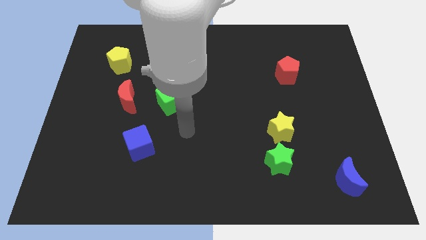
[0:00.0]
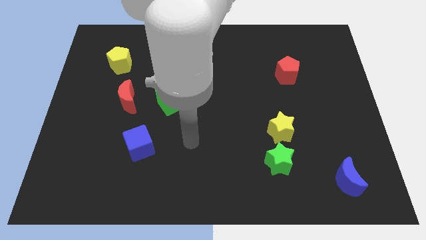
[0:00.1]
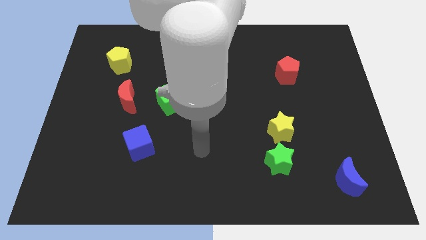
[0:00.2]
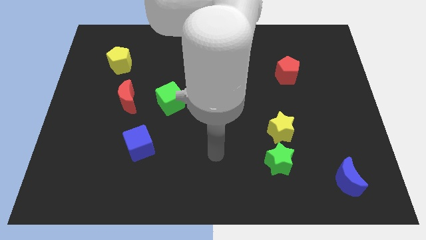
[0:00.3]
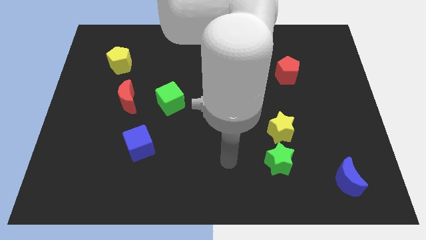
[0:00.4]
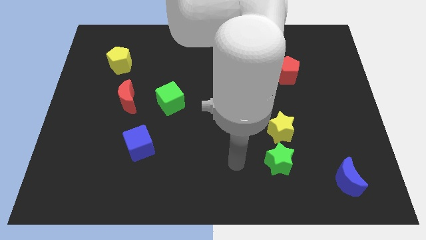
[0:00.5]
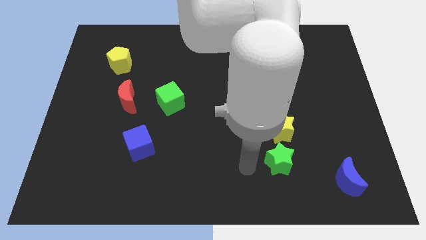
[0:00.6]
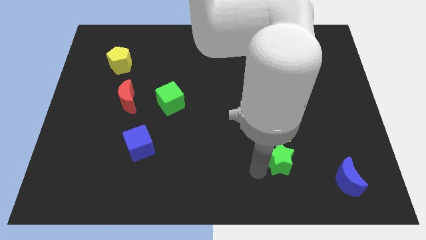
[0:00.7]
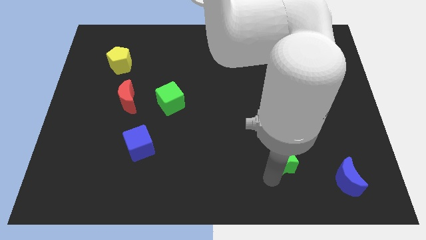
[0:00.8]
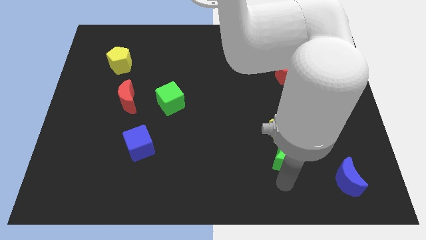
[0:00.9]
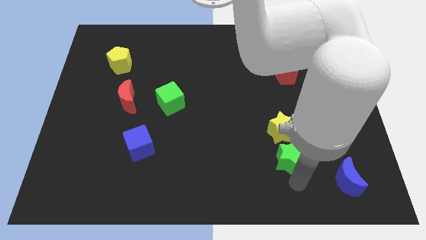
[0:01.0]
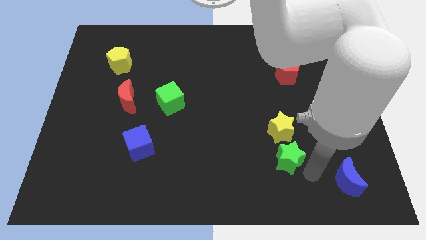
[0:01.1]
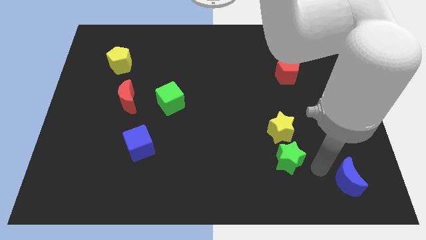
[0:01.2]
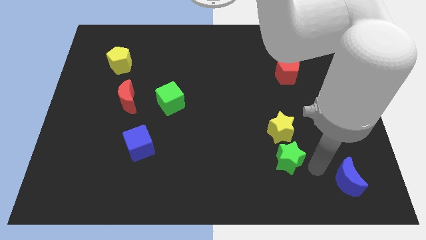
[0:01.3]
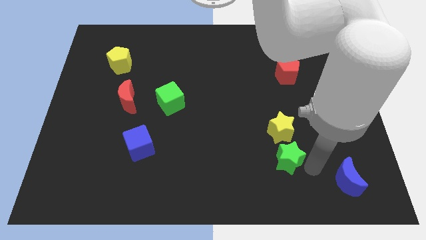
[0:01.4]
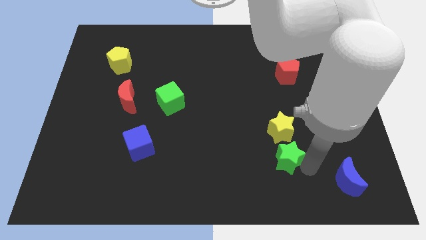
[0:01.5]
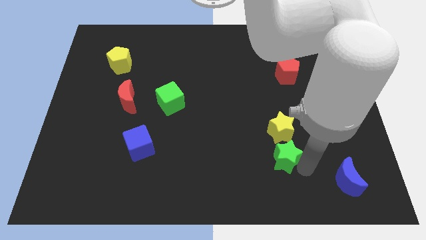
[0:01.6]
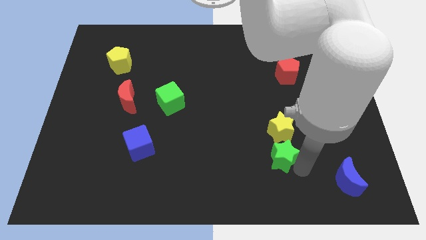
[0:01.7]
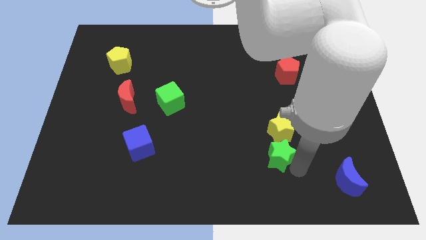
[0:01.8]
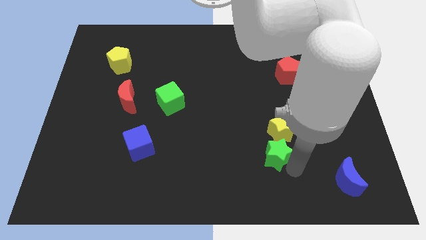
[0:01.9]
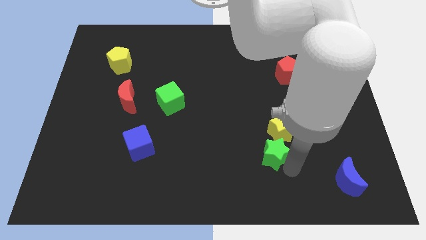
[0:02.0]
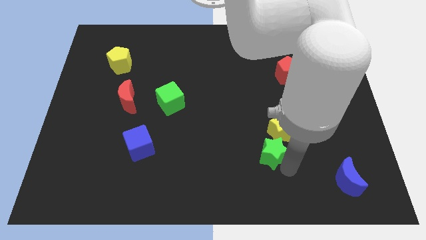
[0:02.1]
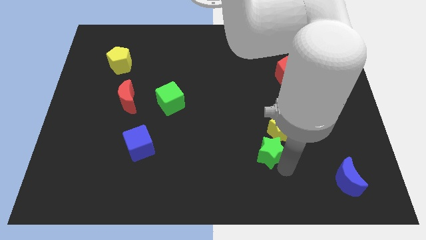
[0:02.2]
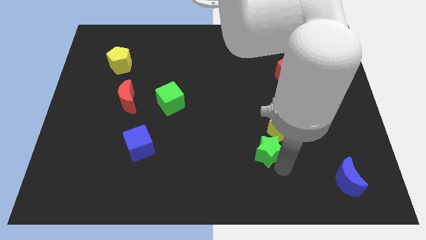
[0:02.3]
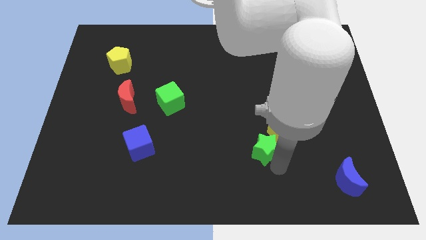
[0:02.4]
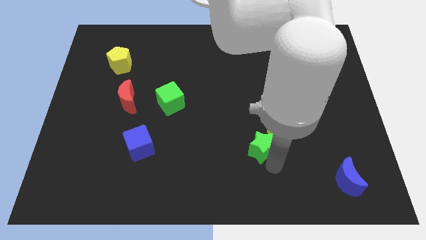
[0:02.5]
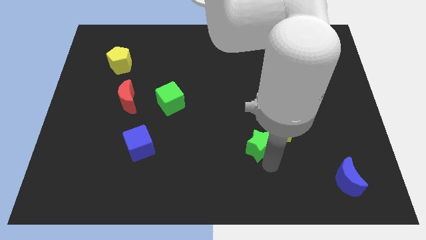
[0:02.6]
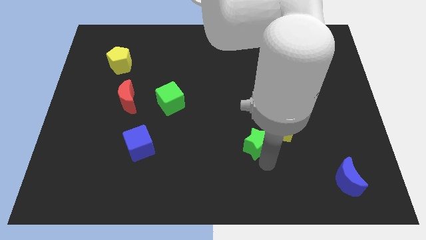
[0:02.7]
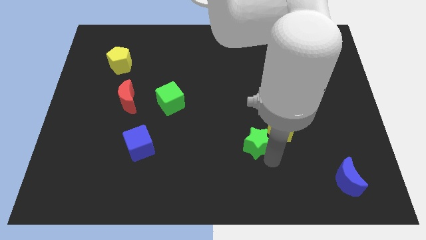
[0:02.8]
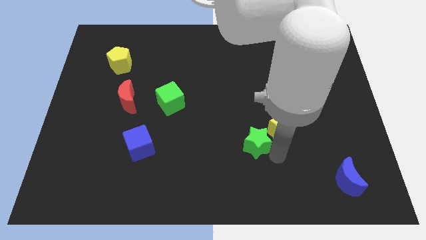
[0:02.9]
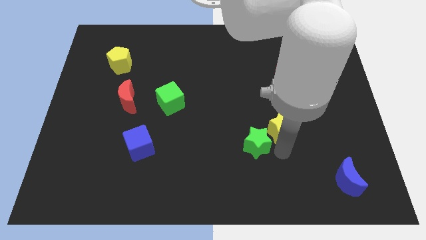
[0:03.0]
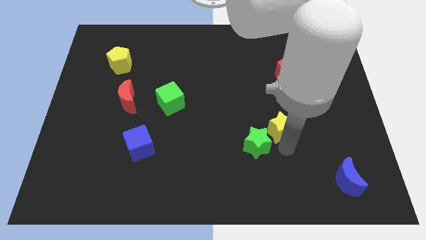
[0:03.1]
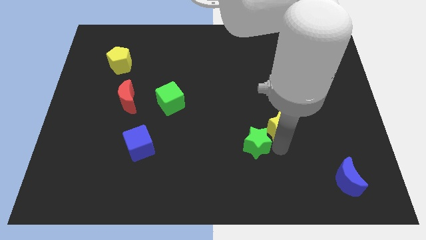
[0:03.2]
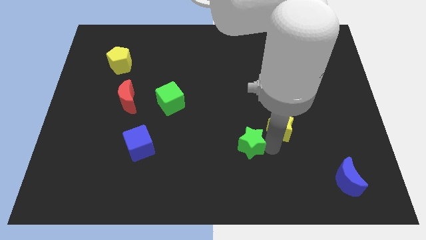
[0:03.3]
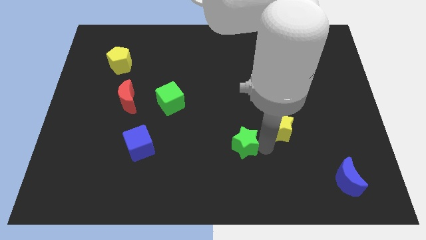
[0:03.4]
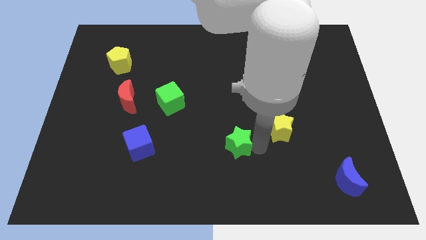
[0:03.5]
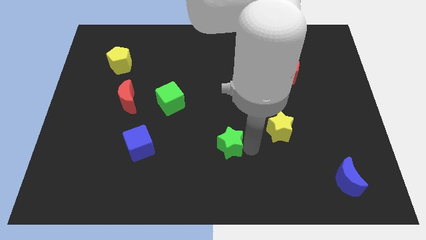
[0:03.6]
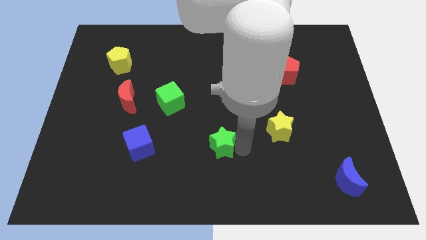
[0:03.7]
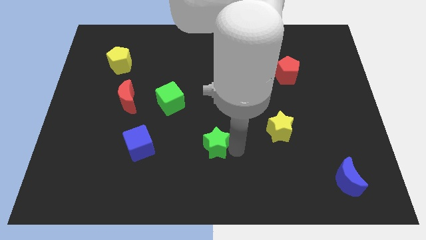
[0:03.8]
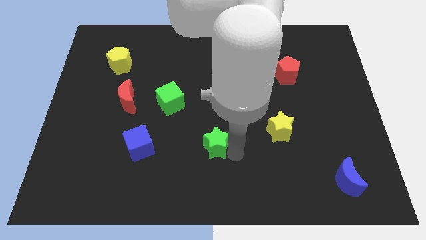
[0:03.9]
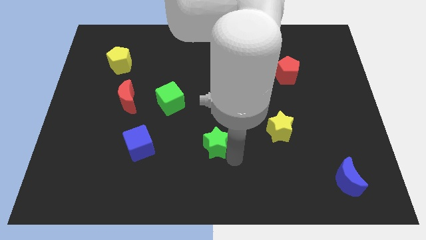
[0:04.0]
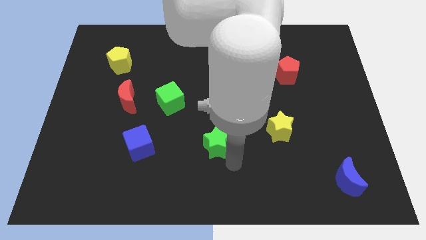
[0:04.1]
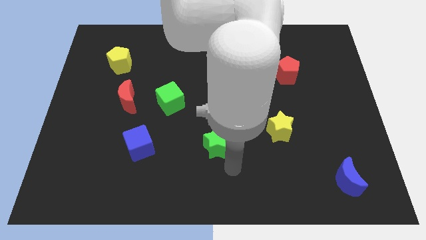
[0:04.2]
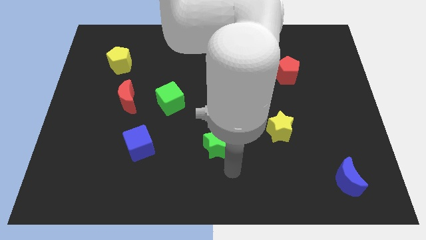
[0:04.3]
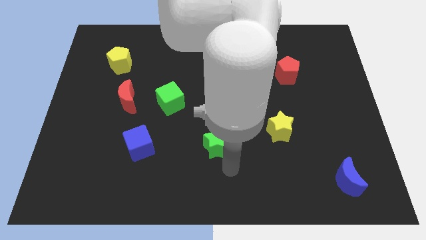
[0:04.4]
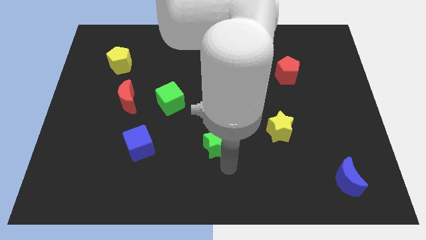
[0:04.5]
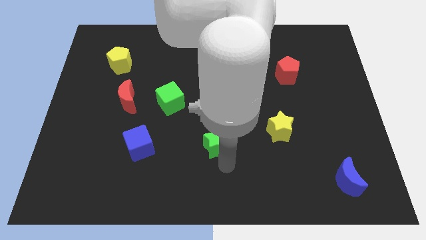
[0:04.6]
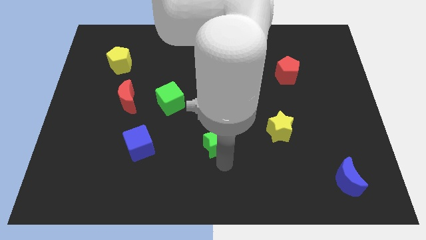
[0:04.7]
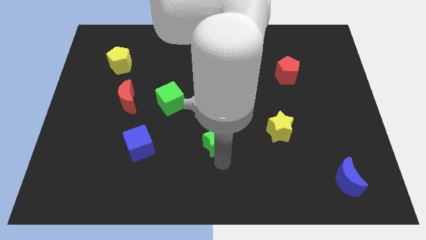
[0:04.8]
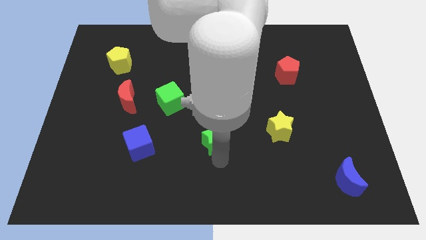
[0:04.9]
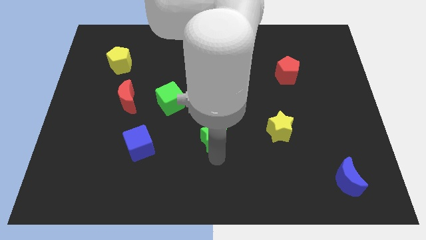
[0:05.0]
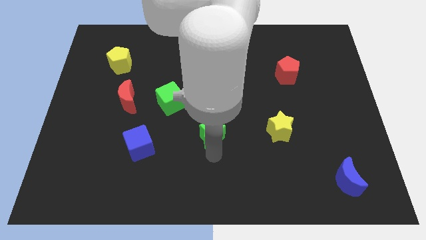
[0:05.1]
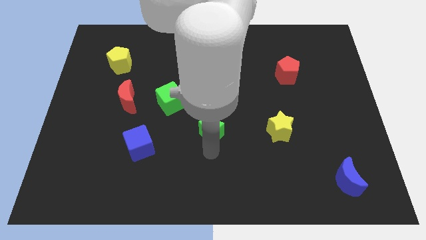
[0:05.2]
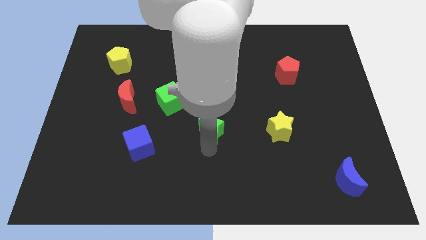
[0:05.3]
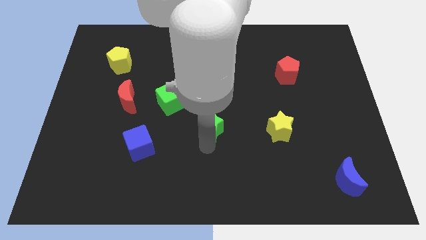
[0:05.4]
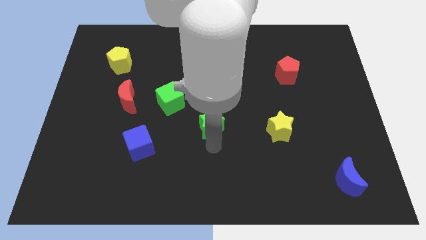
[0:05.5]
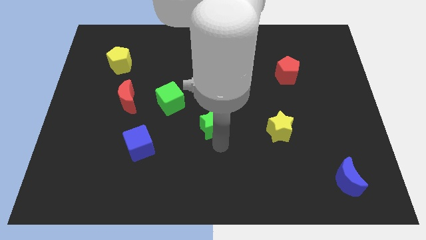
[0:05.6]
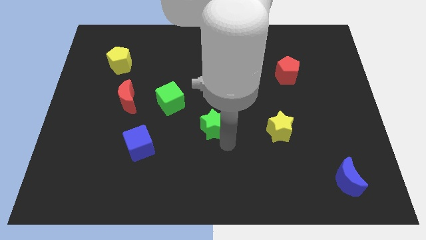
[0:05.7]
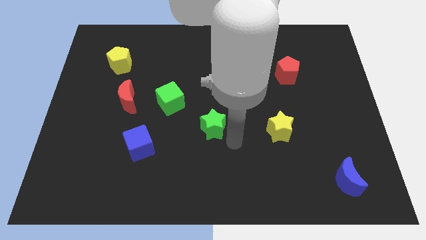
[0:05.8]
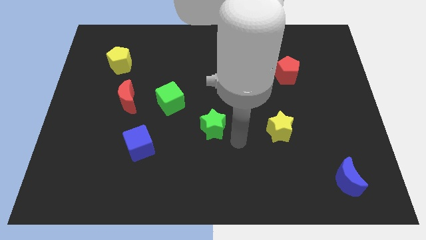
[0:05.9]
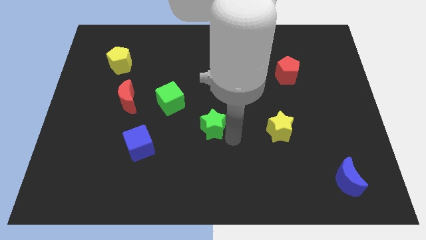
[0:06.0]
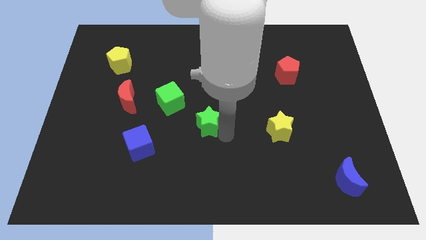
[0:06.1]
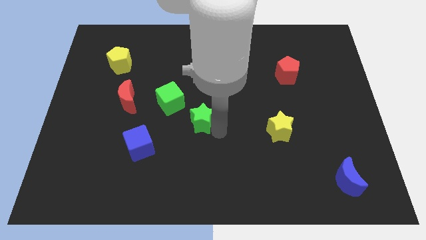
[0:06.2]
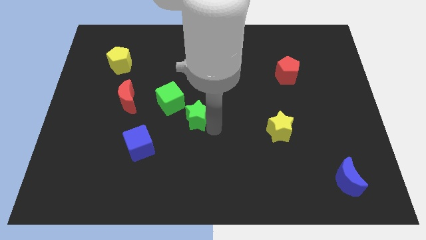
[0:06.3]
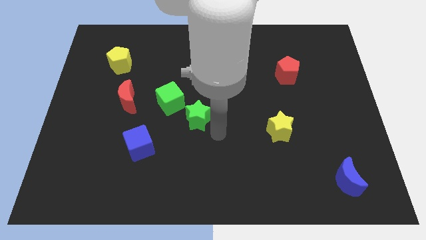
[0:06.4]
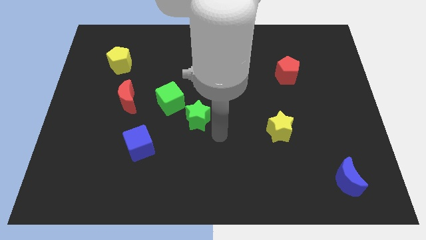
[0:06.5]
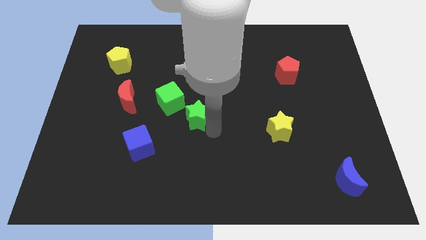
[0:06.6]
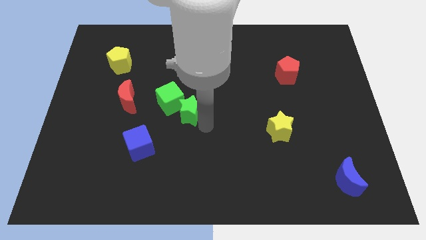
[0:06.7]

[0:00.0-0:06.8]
push the green star next to the green cube

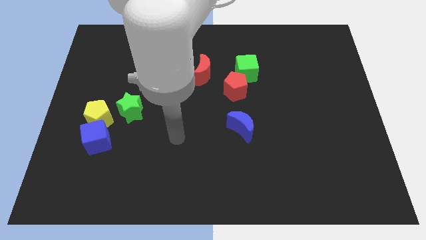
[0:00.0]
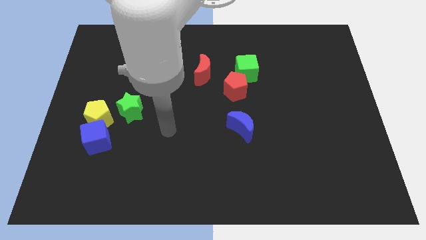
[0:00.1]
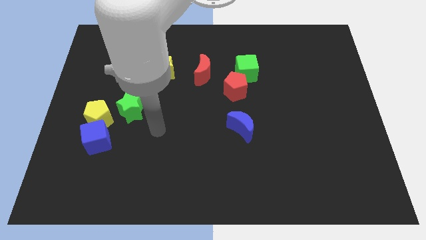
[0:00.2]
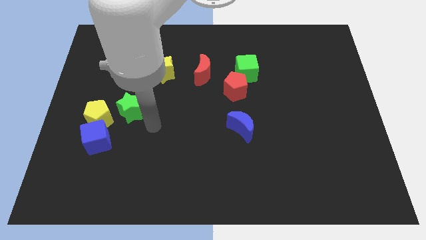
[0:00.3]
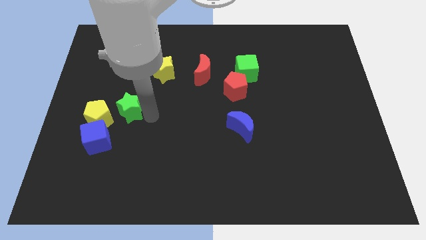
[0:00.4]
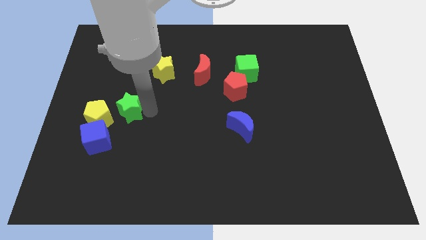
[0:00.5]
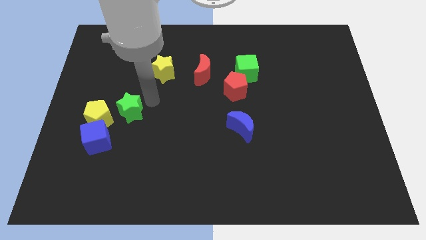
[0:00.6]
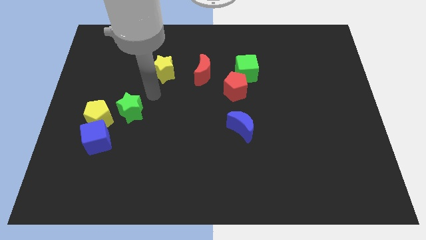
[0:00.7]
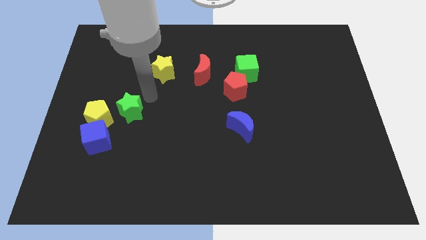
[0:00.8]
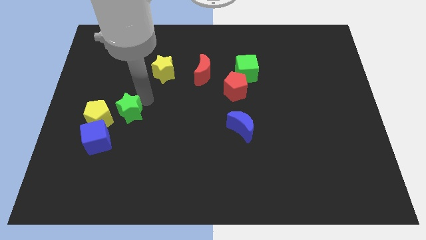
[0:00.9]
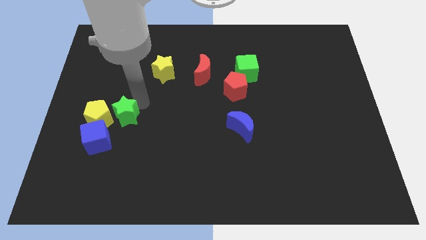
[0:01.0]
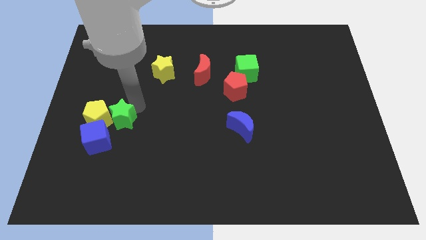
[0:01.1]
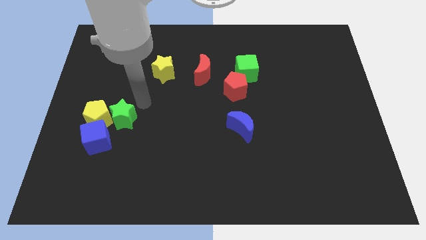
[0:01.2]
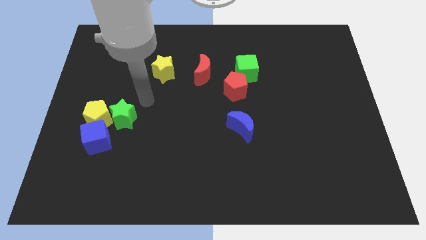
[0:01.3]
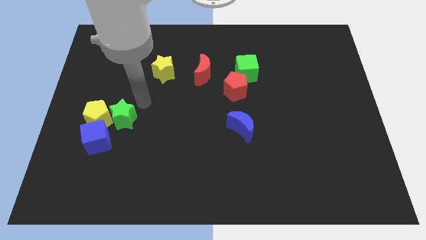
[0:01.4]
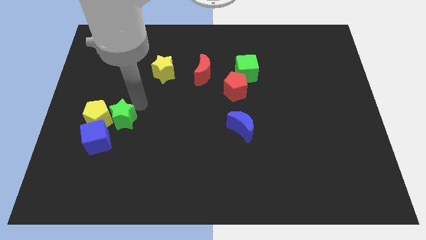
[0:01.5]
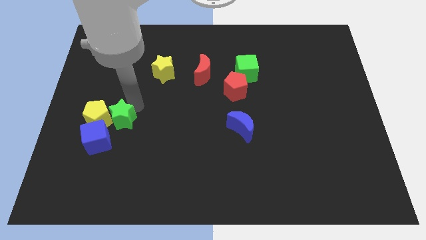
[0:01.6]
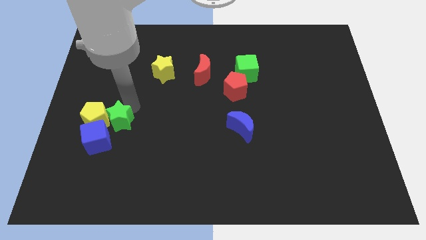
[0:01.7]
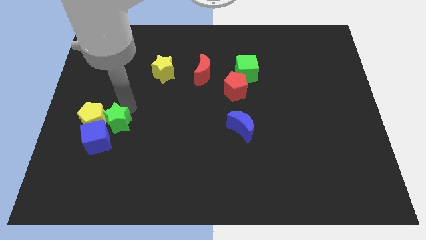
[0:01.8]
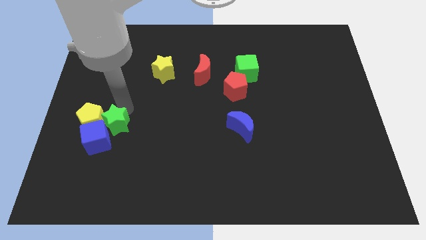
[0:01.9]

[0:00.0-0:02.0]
slide the green star close to the blue cube
